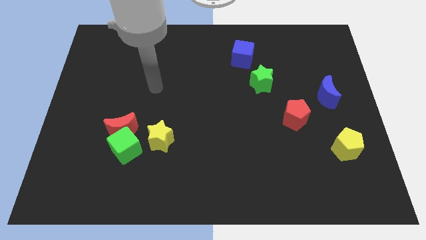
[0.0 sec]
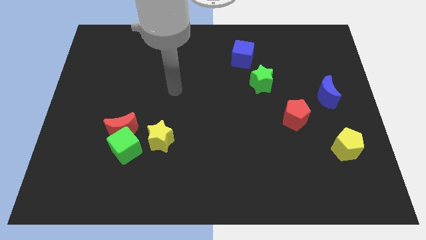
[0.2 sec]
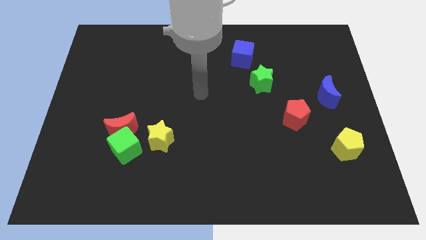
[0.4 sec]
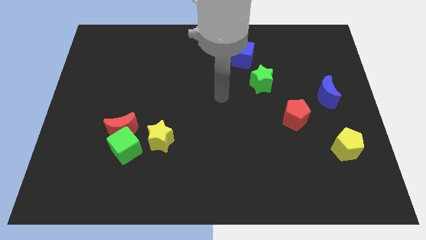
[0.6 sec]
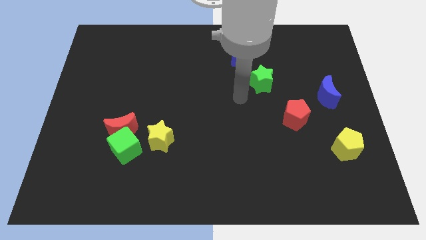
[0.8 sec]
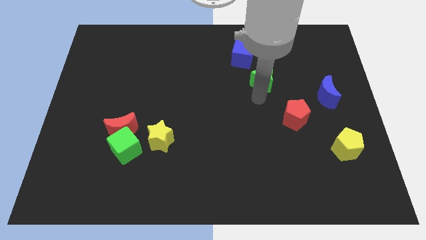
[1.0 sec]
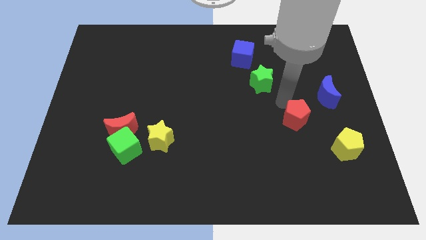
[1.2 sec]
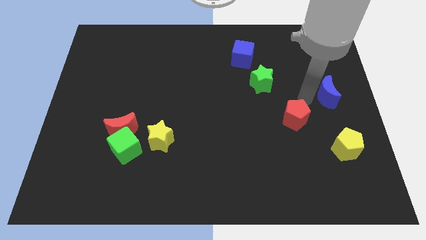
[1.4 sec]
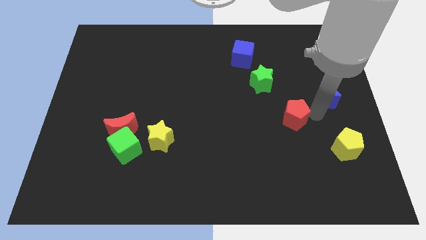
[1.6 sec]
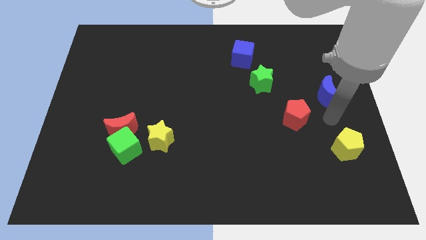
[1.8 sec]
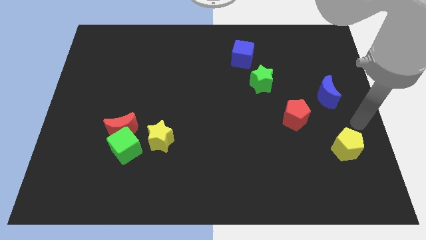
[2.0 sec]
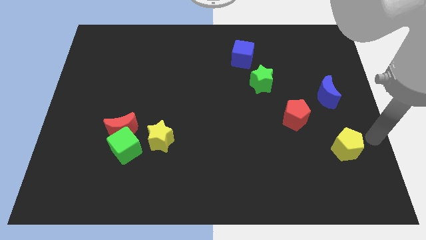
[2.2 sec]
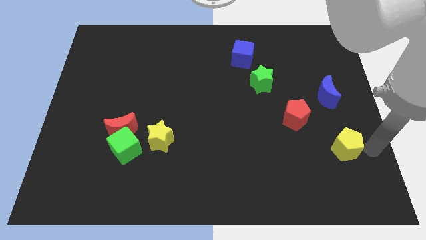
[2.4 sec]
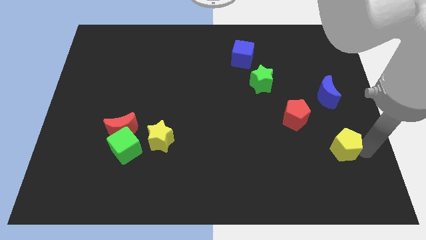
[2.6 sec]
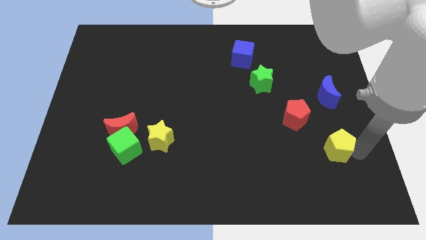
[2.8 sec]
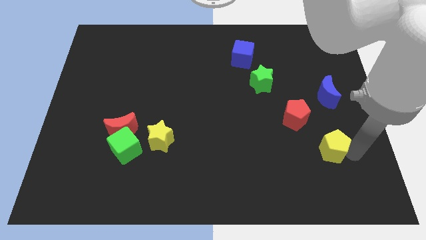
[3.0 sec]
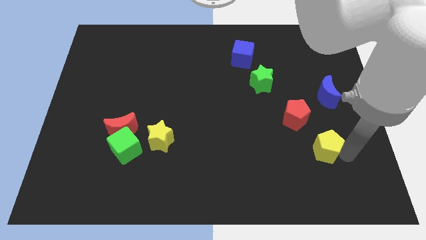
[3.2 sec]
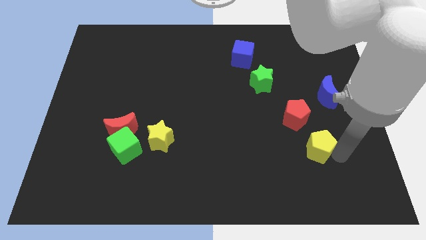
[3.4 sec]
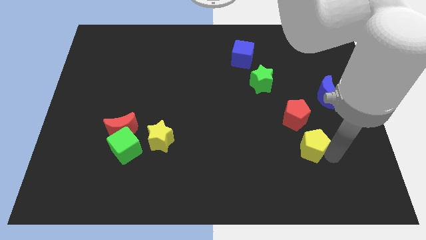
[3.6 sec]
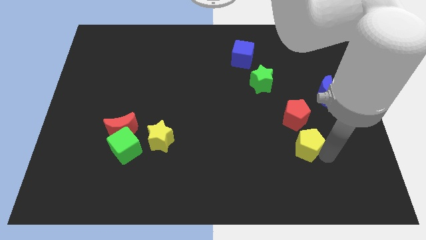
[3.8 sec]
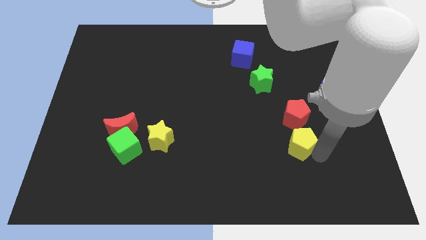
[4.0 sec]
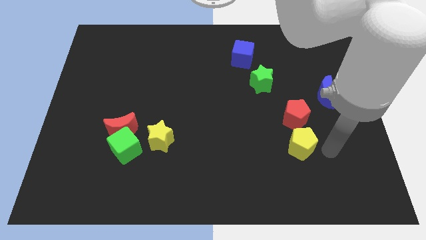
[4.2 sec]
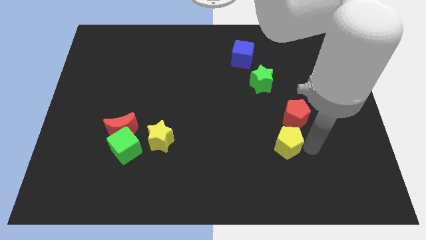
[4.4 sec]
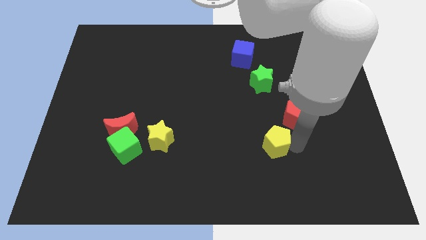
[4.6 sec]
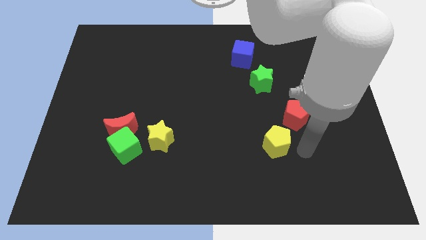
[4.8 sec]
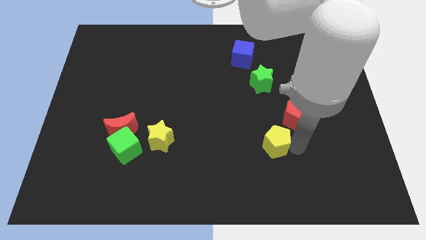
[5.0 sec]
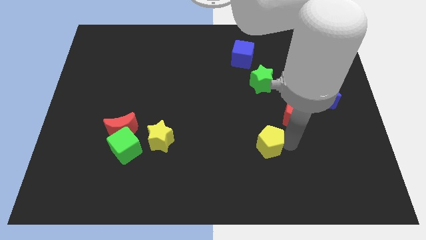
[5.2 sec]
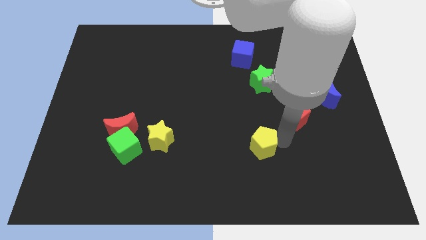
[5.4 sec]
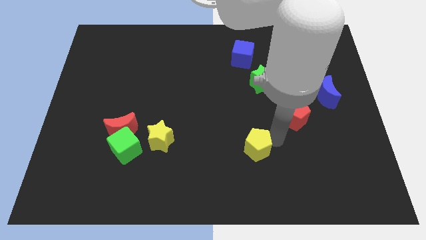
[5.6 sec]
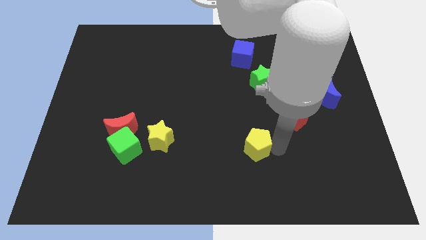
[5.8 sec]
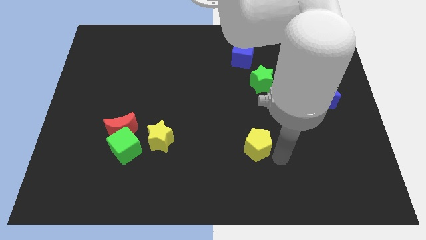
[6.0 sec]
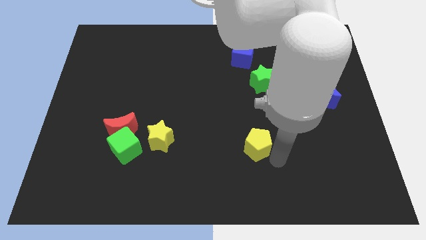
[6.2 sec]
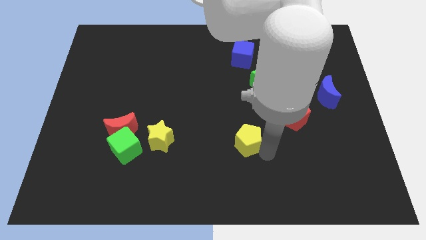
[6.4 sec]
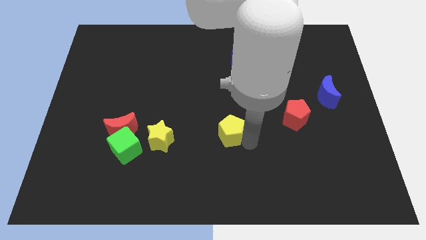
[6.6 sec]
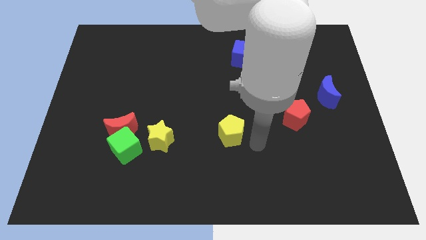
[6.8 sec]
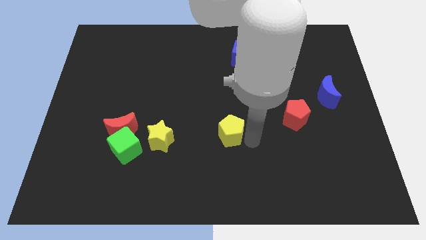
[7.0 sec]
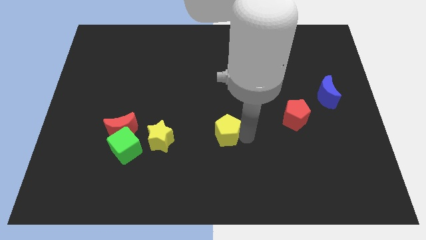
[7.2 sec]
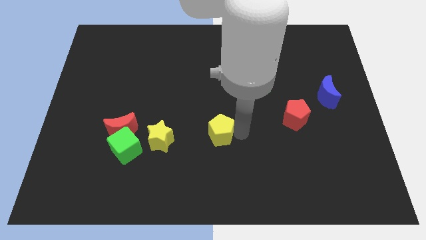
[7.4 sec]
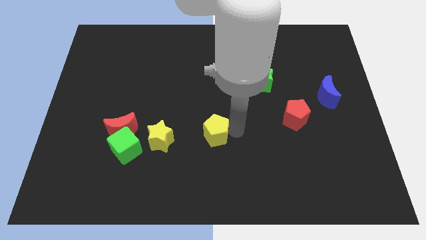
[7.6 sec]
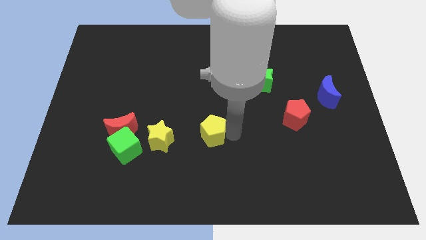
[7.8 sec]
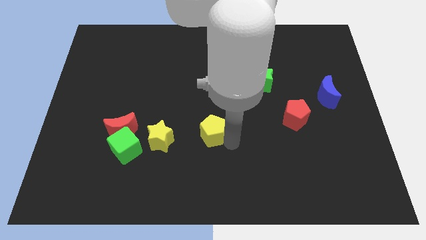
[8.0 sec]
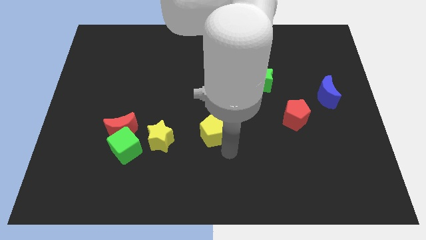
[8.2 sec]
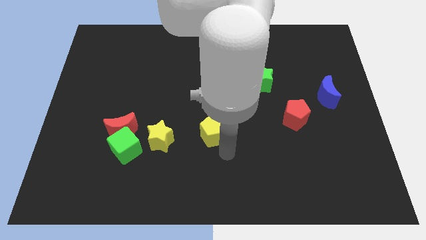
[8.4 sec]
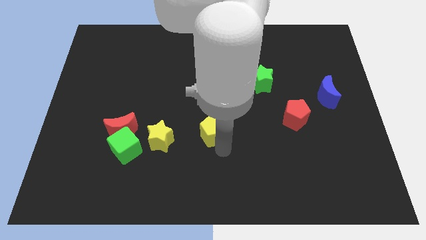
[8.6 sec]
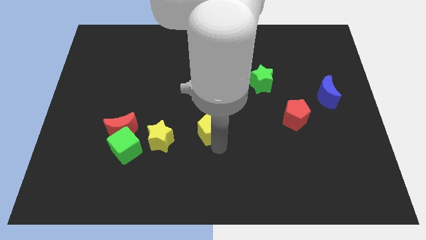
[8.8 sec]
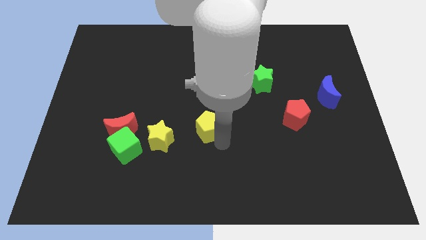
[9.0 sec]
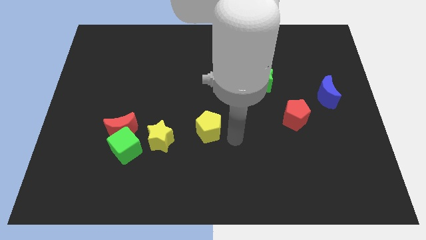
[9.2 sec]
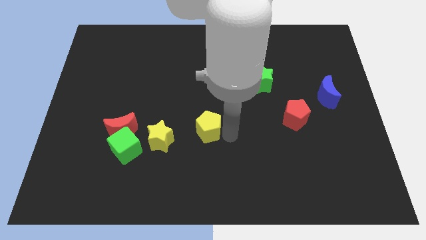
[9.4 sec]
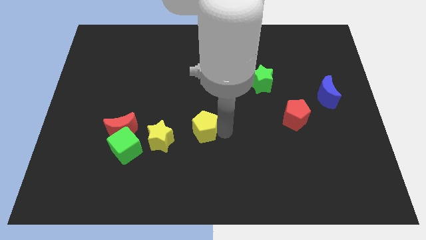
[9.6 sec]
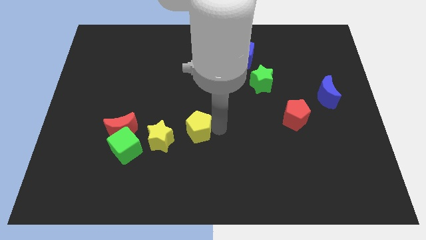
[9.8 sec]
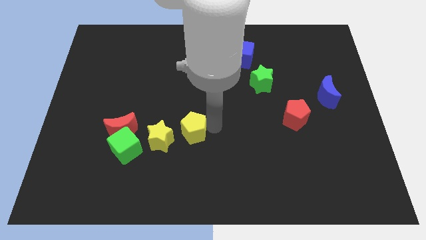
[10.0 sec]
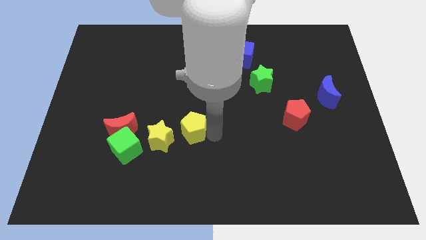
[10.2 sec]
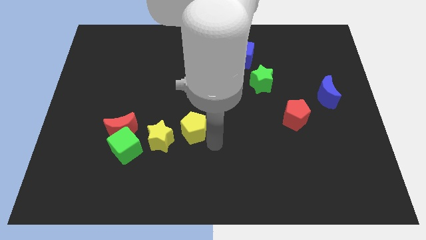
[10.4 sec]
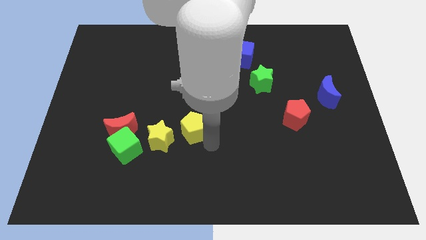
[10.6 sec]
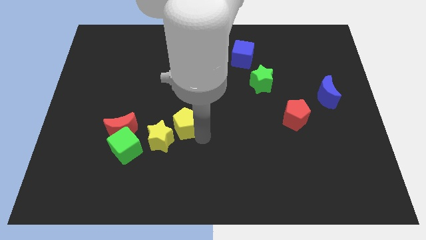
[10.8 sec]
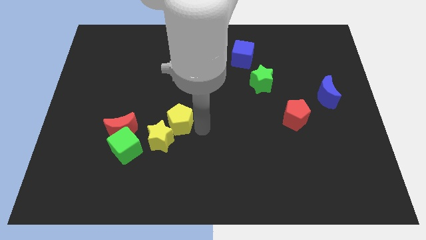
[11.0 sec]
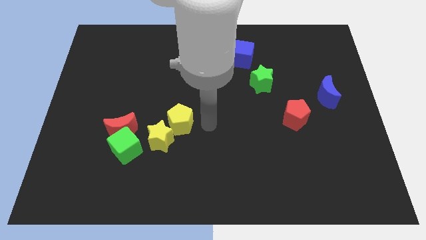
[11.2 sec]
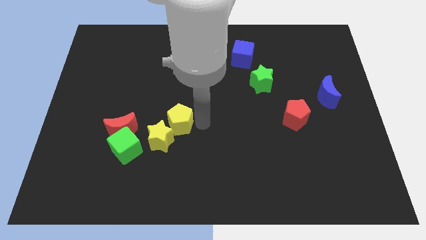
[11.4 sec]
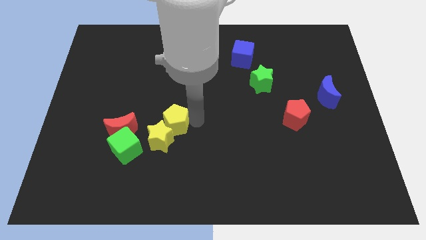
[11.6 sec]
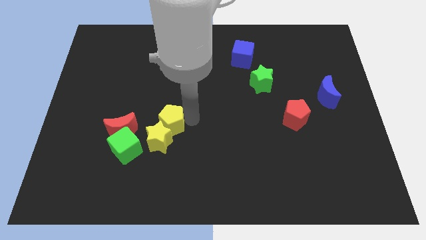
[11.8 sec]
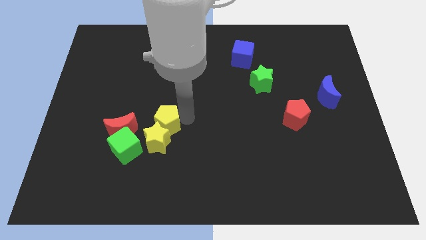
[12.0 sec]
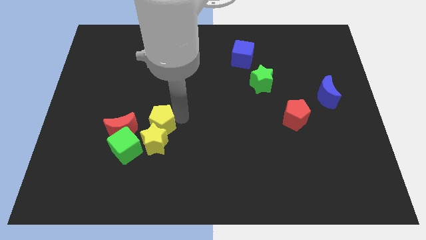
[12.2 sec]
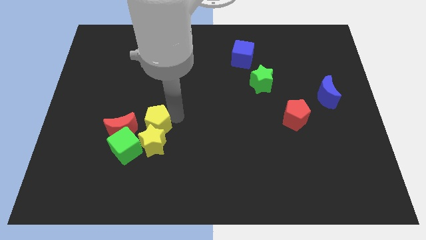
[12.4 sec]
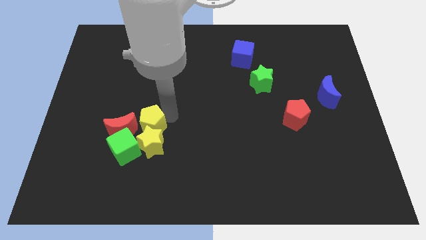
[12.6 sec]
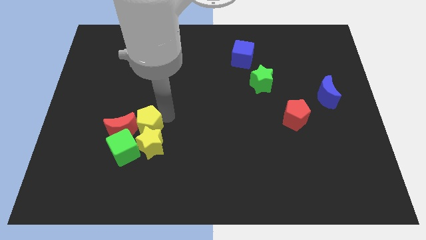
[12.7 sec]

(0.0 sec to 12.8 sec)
move the yellow pentagon next to the red moon

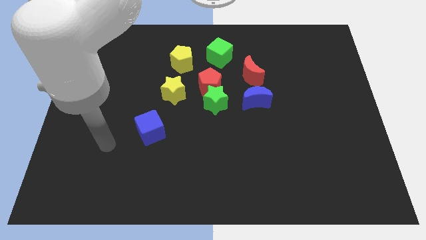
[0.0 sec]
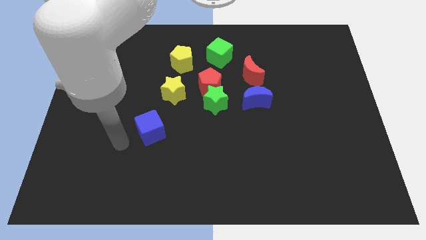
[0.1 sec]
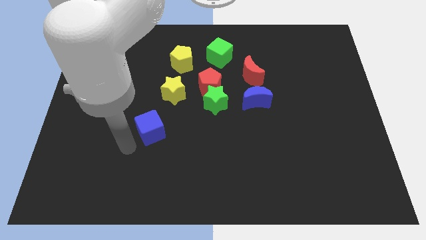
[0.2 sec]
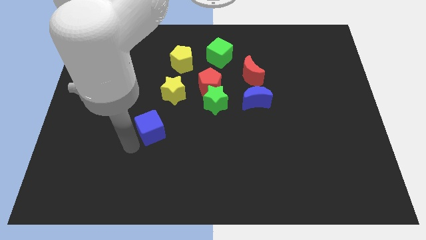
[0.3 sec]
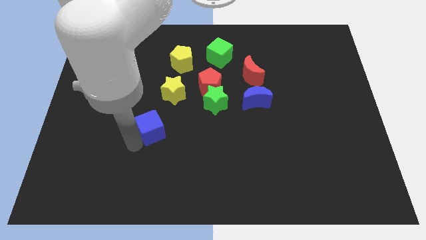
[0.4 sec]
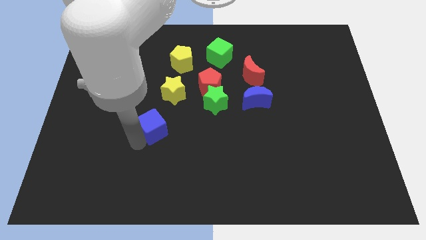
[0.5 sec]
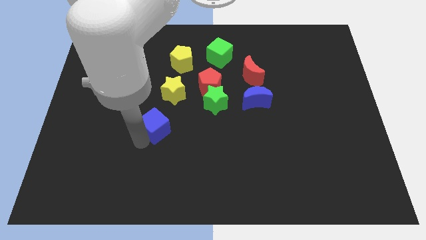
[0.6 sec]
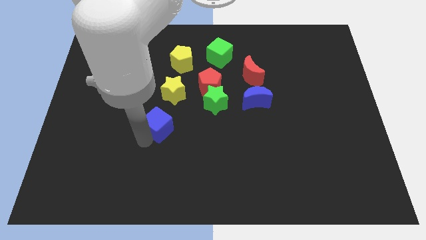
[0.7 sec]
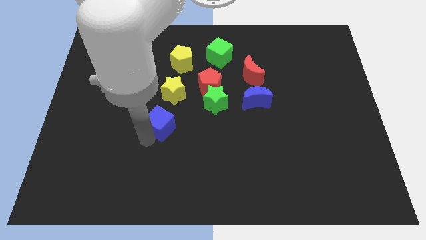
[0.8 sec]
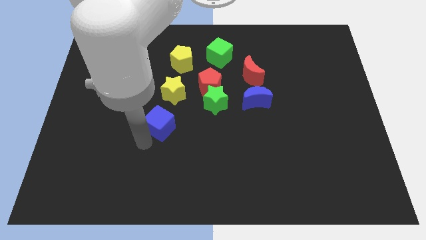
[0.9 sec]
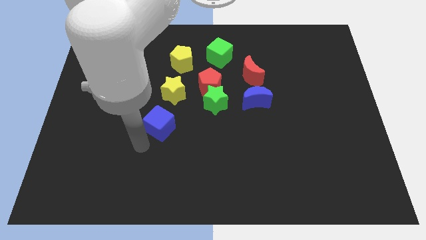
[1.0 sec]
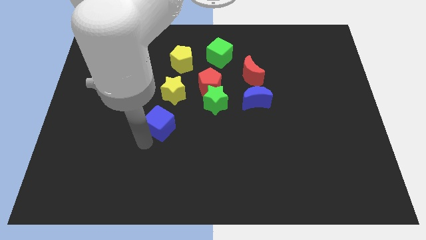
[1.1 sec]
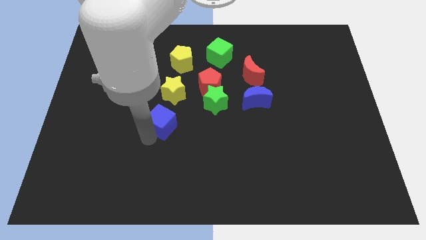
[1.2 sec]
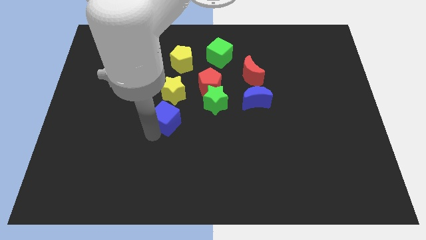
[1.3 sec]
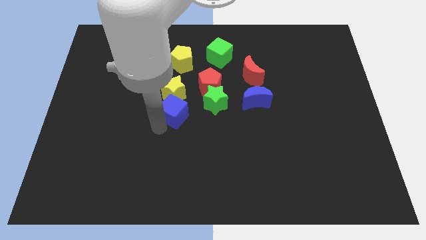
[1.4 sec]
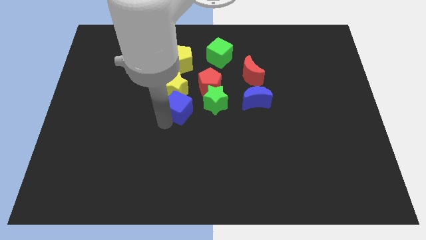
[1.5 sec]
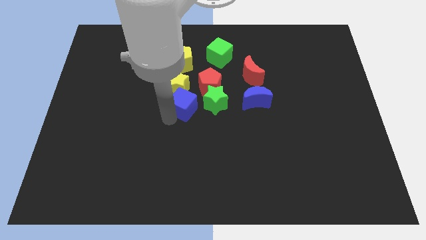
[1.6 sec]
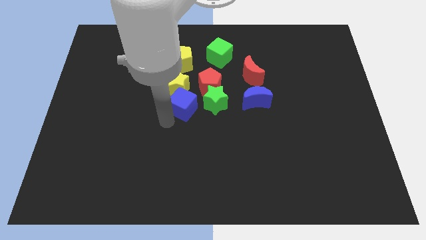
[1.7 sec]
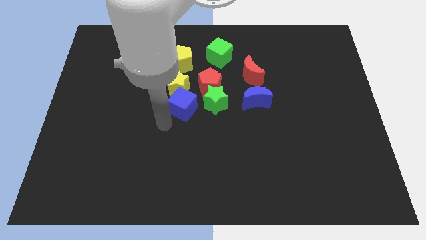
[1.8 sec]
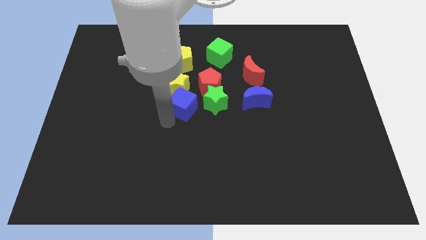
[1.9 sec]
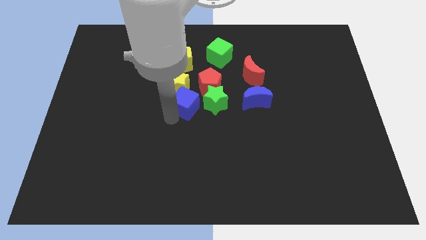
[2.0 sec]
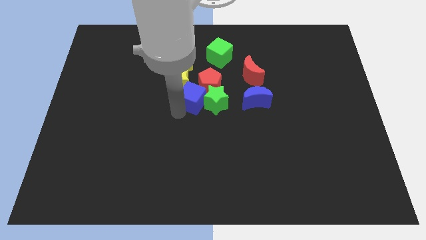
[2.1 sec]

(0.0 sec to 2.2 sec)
move the blue cube next to the red pentagon
